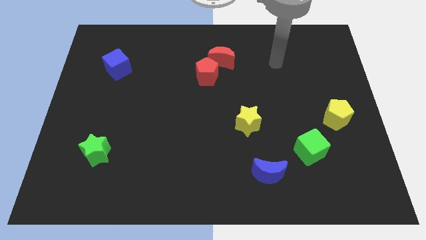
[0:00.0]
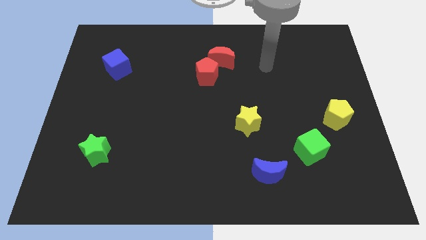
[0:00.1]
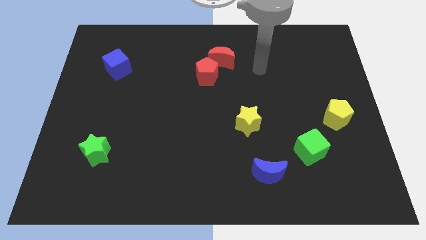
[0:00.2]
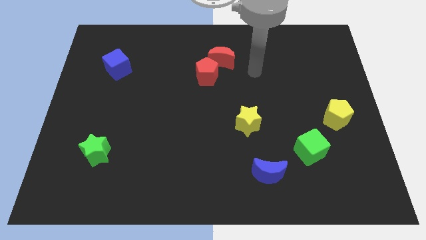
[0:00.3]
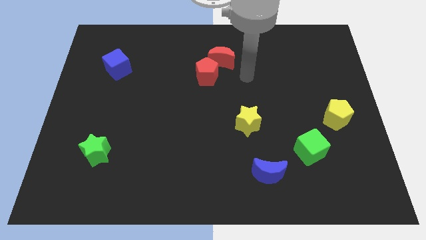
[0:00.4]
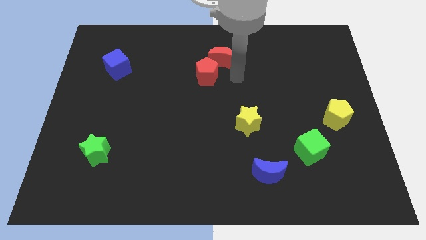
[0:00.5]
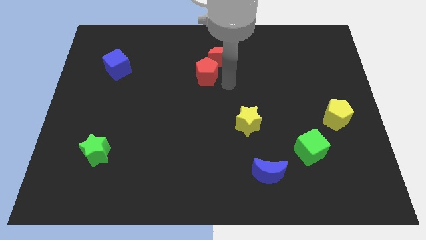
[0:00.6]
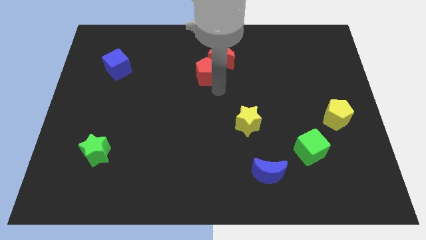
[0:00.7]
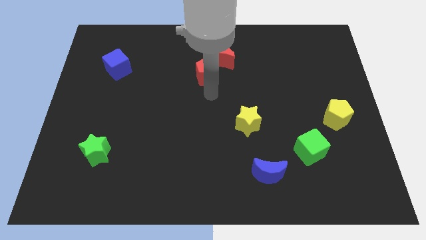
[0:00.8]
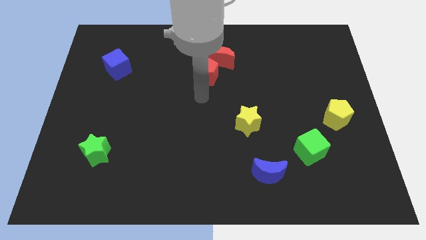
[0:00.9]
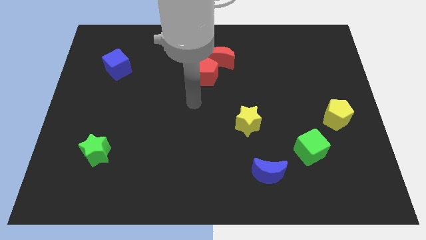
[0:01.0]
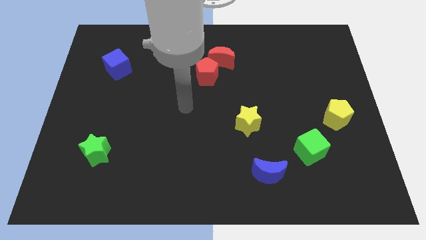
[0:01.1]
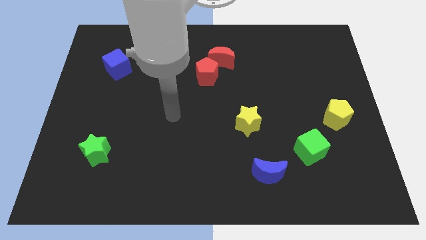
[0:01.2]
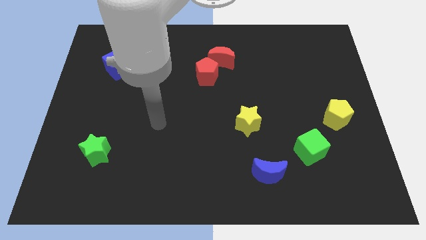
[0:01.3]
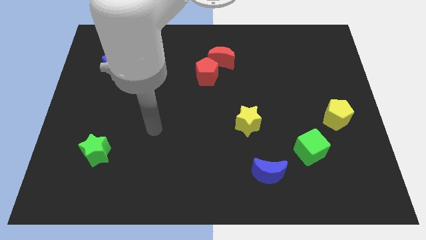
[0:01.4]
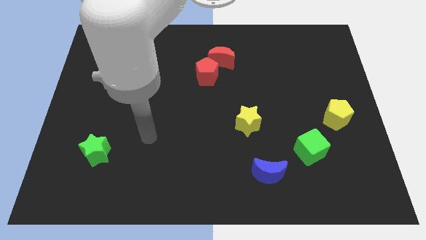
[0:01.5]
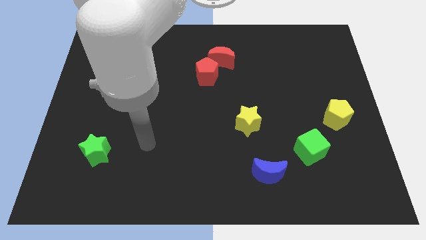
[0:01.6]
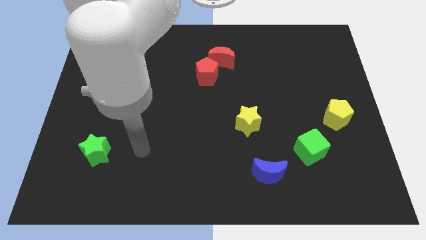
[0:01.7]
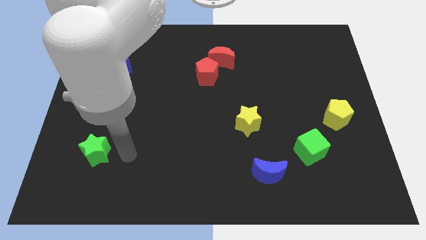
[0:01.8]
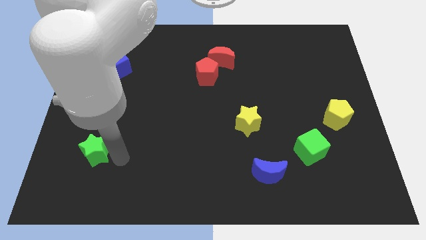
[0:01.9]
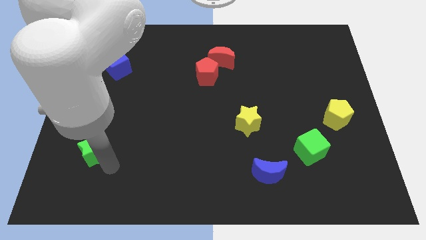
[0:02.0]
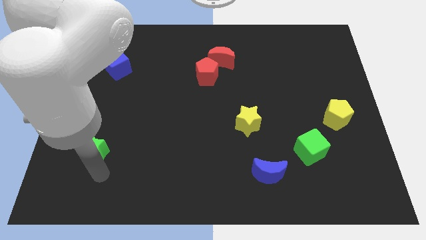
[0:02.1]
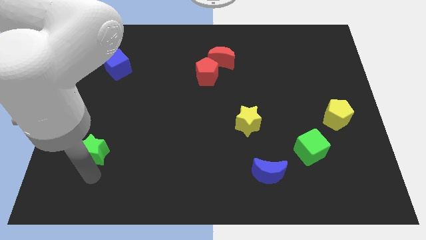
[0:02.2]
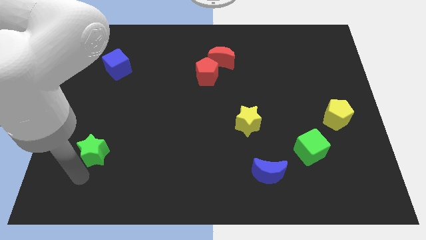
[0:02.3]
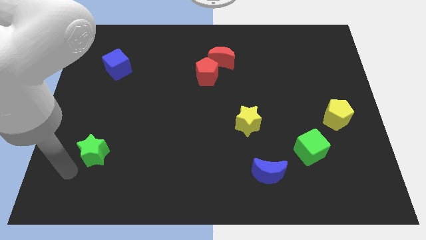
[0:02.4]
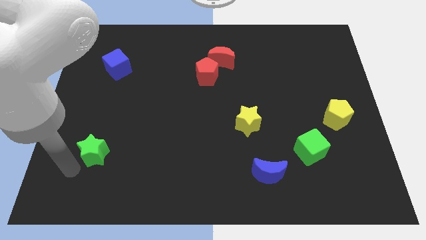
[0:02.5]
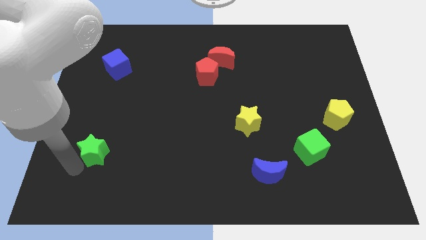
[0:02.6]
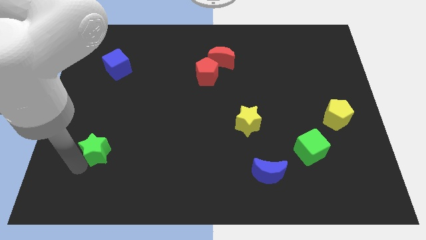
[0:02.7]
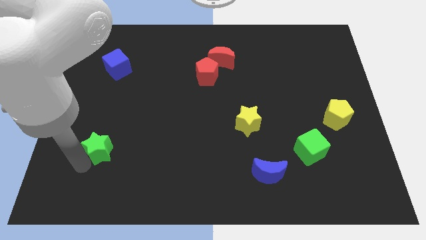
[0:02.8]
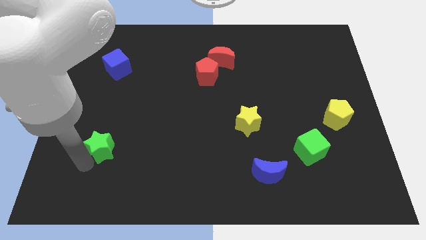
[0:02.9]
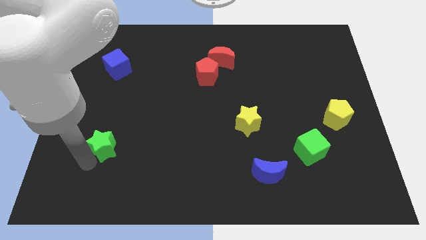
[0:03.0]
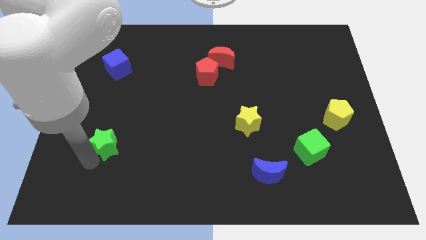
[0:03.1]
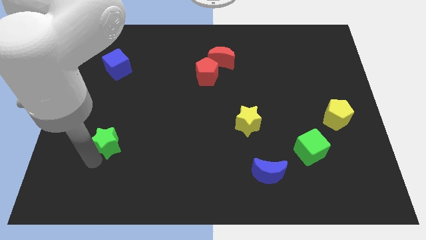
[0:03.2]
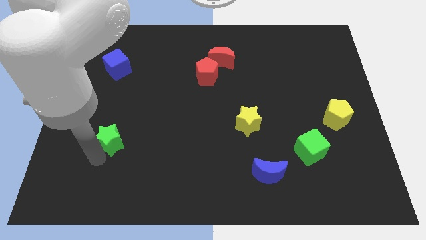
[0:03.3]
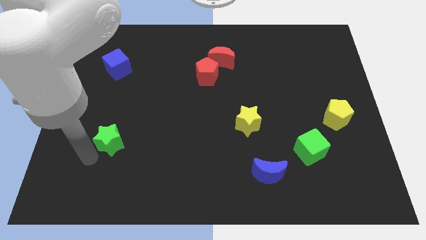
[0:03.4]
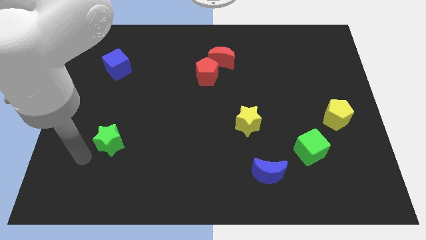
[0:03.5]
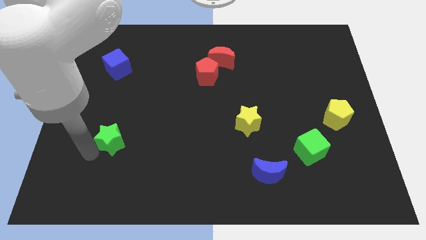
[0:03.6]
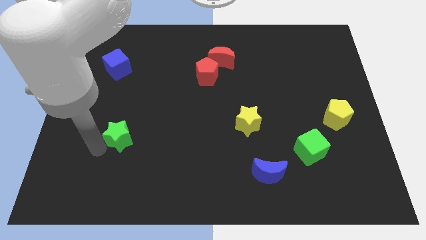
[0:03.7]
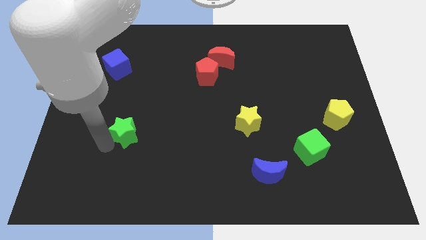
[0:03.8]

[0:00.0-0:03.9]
slide the green star upwards and right diagonally slightly

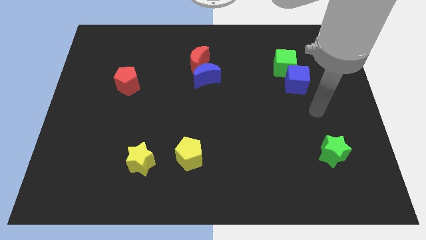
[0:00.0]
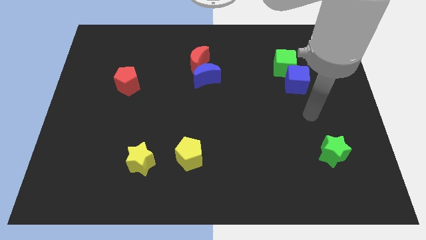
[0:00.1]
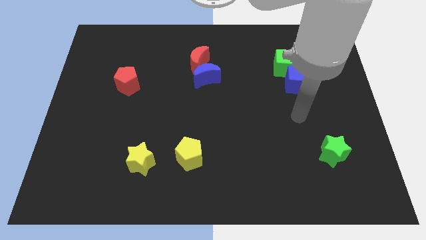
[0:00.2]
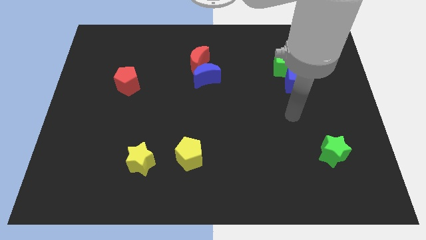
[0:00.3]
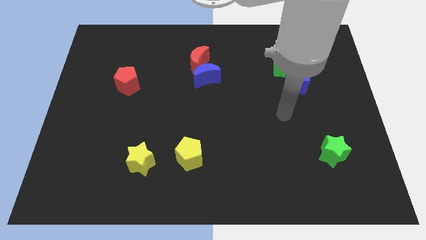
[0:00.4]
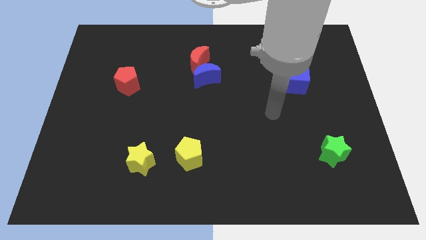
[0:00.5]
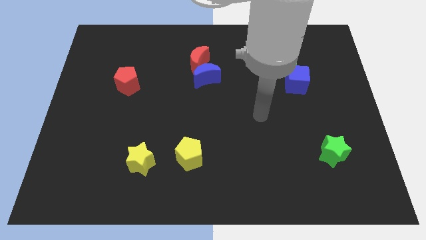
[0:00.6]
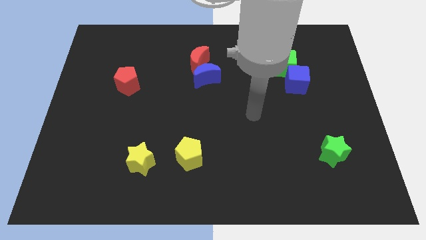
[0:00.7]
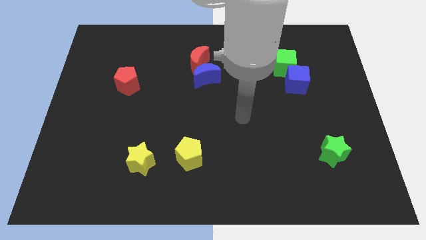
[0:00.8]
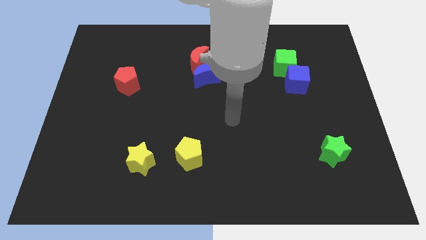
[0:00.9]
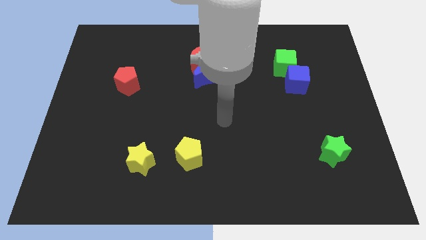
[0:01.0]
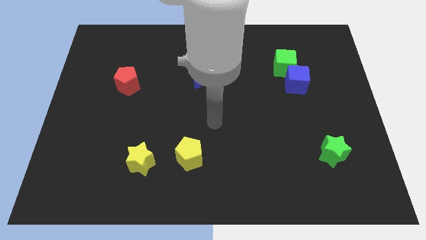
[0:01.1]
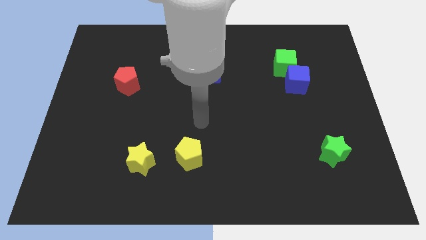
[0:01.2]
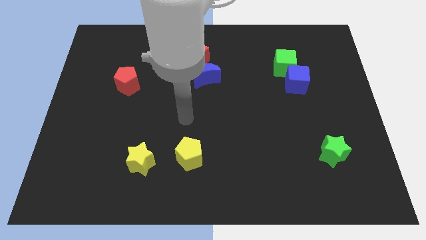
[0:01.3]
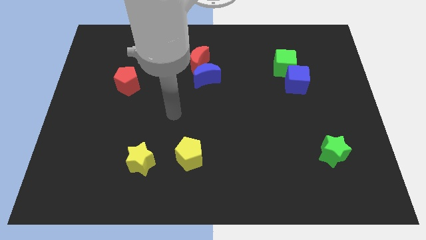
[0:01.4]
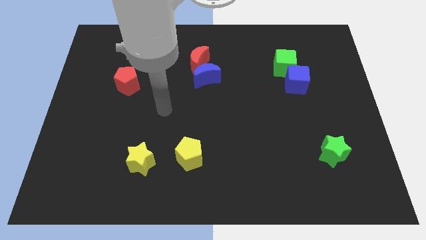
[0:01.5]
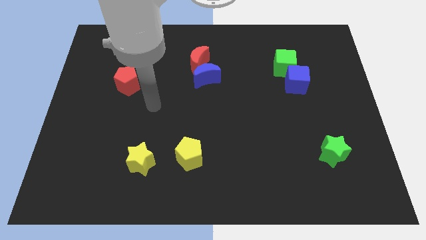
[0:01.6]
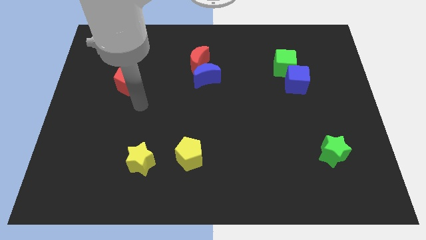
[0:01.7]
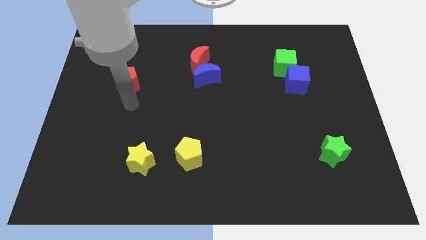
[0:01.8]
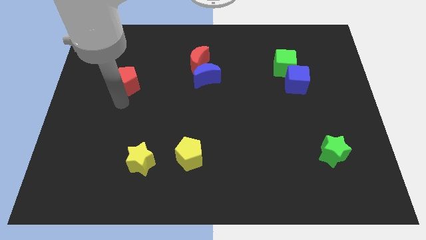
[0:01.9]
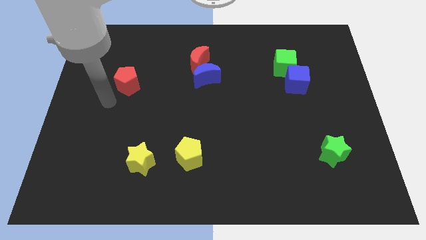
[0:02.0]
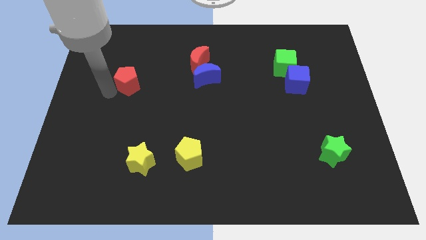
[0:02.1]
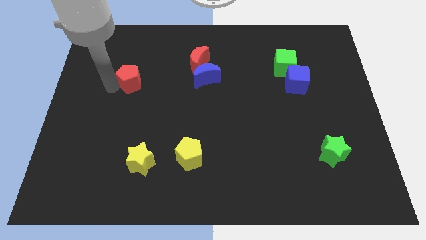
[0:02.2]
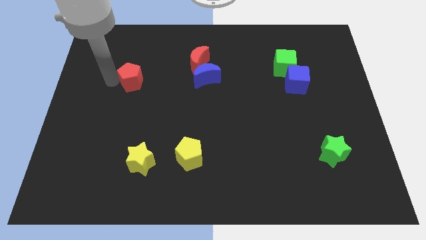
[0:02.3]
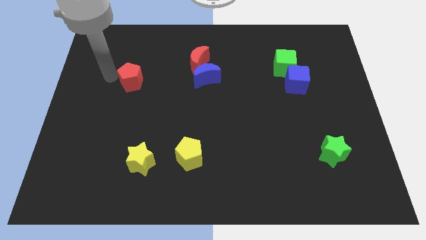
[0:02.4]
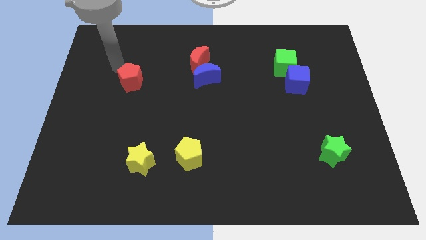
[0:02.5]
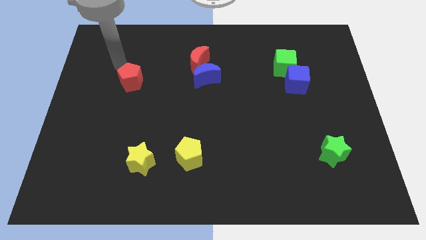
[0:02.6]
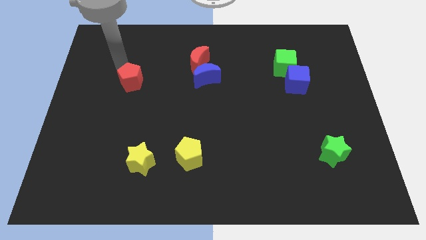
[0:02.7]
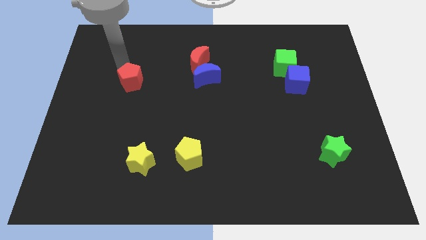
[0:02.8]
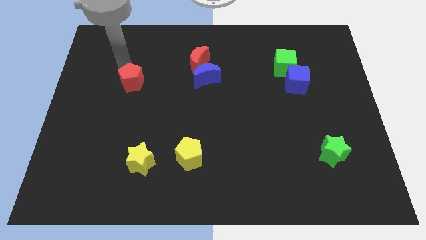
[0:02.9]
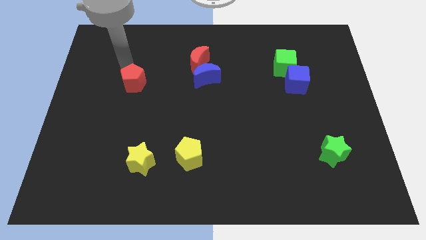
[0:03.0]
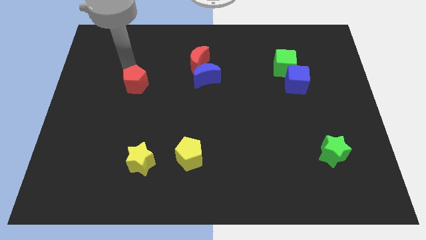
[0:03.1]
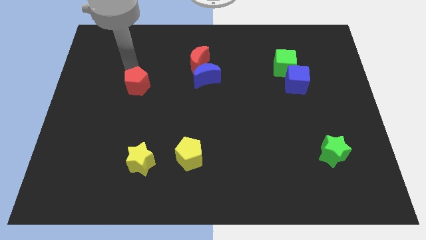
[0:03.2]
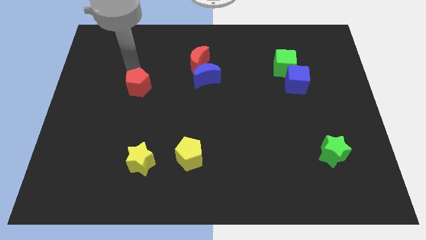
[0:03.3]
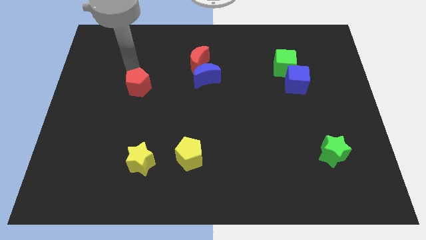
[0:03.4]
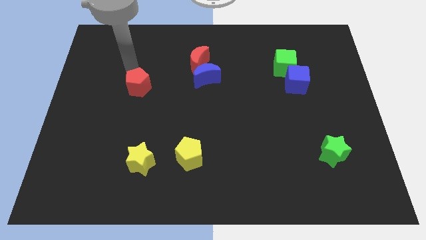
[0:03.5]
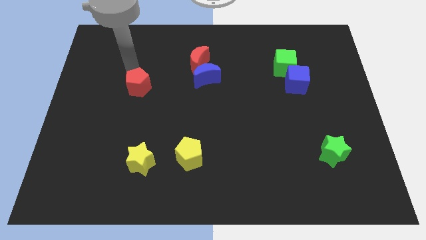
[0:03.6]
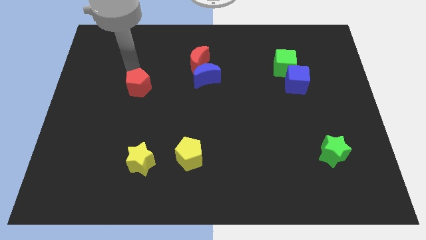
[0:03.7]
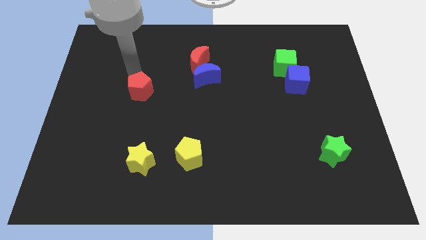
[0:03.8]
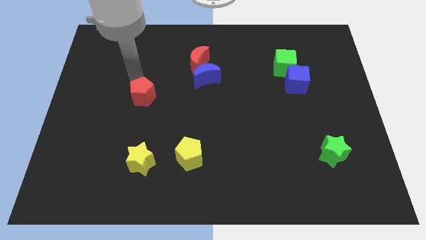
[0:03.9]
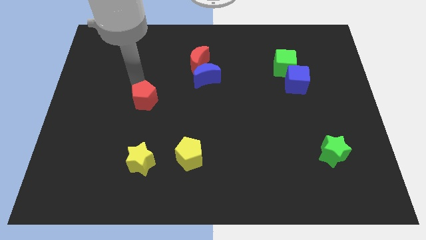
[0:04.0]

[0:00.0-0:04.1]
slightly slide the red pentagon down and to the right

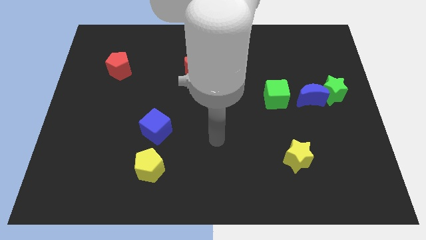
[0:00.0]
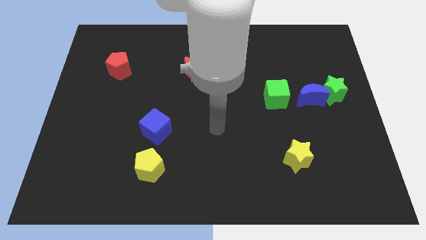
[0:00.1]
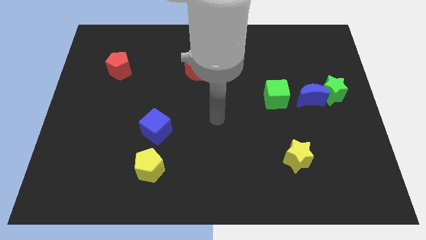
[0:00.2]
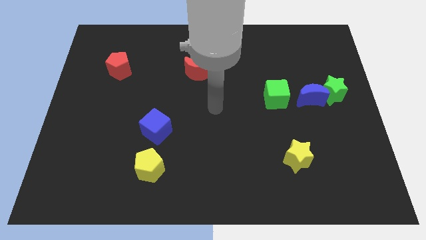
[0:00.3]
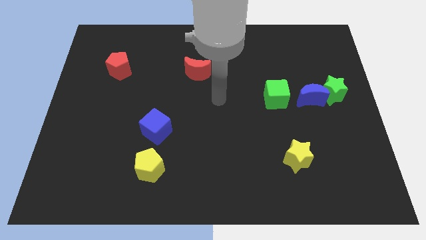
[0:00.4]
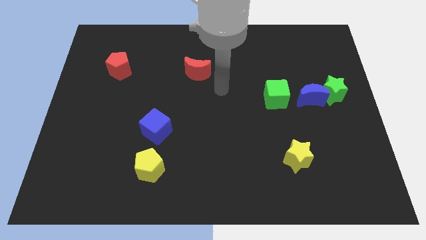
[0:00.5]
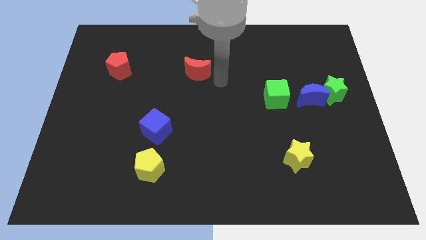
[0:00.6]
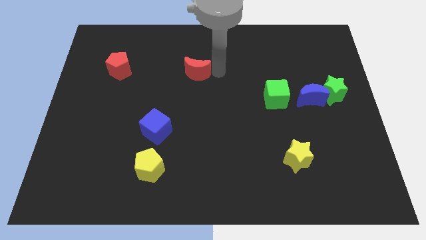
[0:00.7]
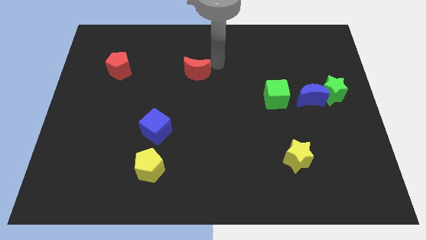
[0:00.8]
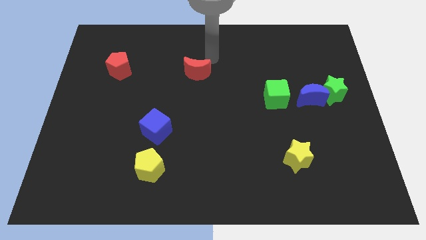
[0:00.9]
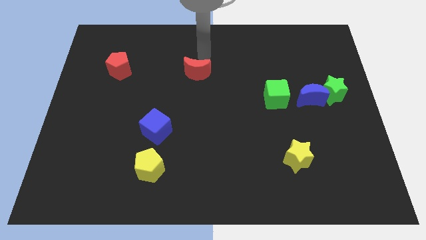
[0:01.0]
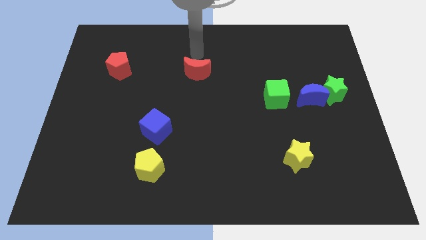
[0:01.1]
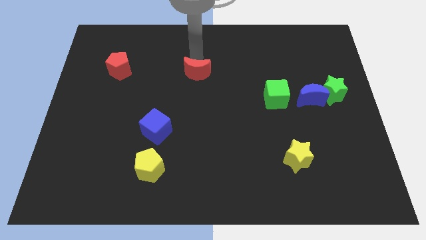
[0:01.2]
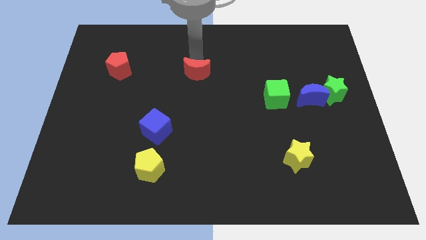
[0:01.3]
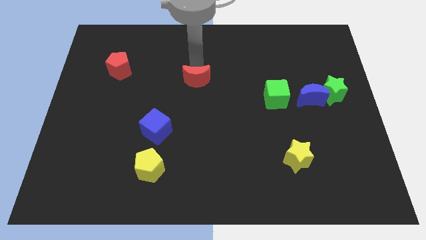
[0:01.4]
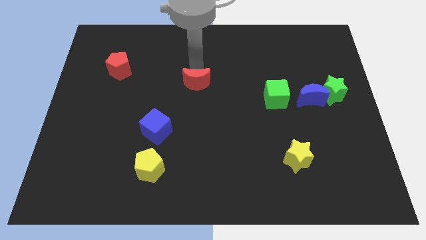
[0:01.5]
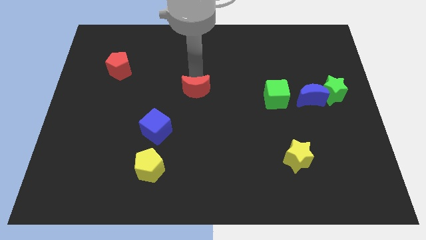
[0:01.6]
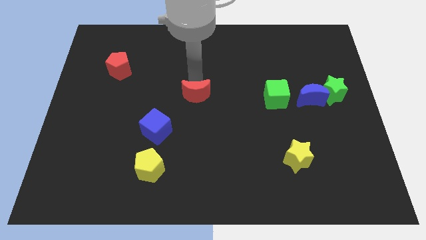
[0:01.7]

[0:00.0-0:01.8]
slightly slide the red moon down
